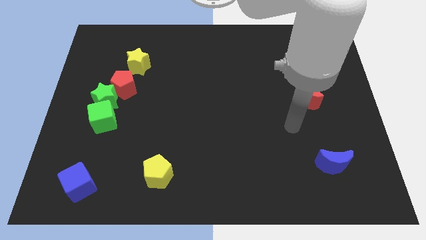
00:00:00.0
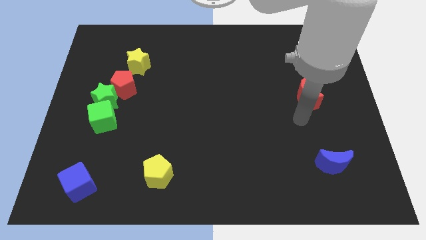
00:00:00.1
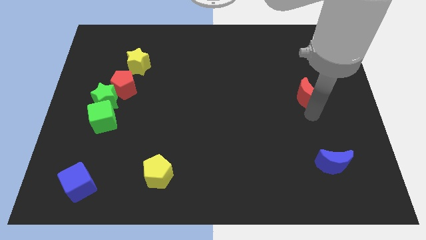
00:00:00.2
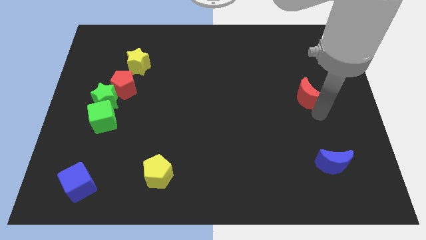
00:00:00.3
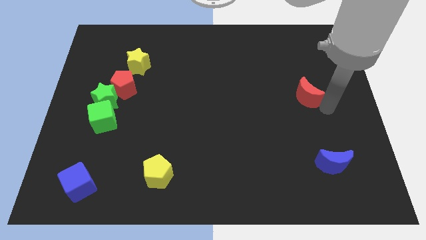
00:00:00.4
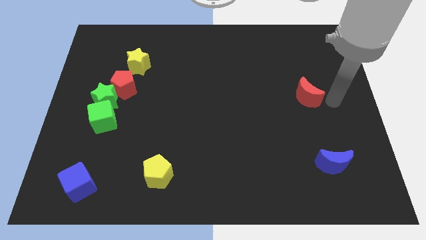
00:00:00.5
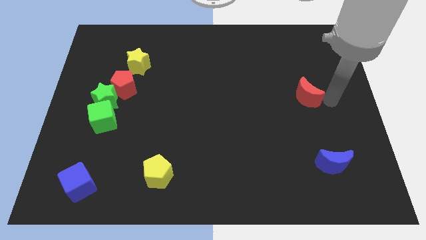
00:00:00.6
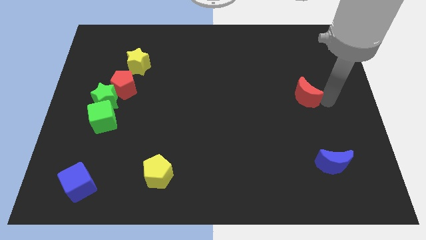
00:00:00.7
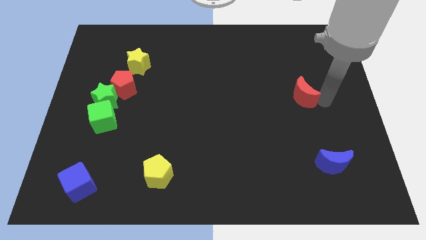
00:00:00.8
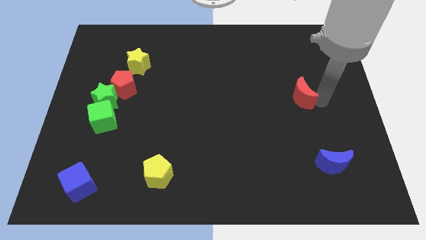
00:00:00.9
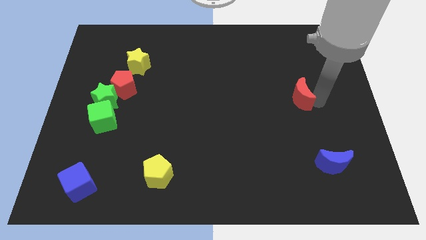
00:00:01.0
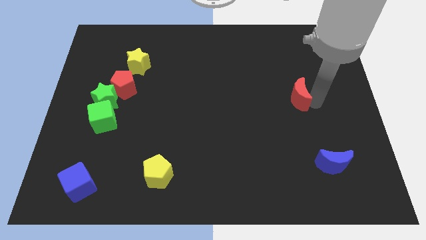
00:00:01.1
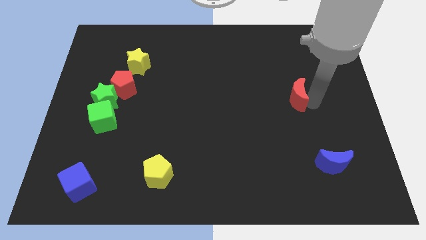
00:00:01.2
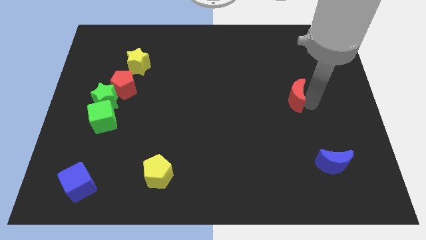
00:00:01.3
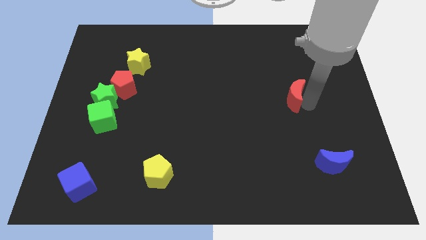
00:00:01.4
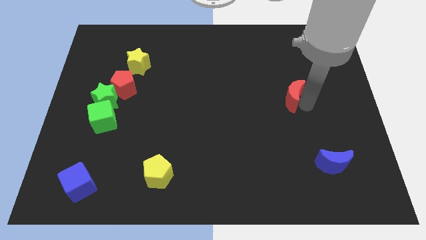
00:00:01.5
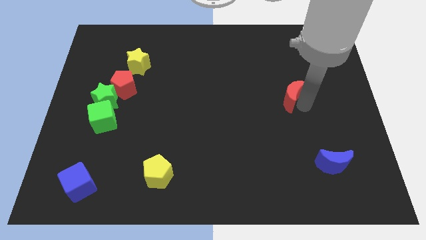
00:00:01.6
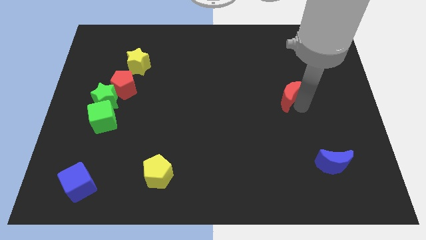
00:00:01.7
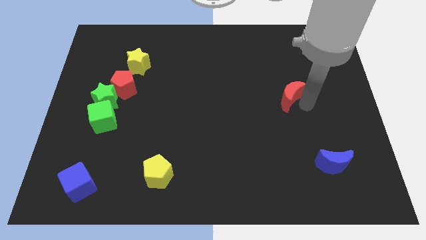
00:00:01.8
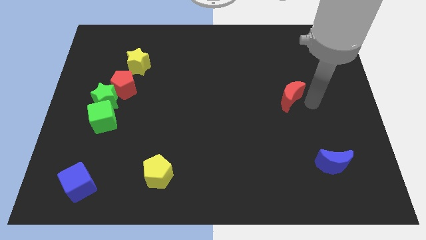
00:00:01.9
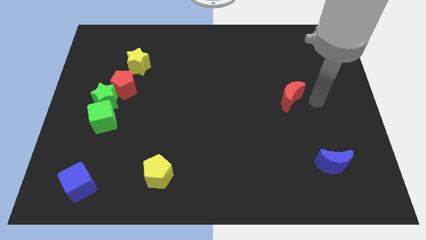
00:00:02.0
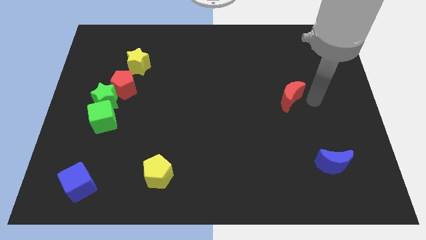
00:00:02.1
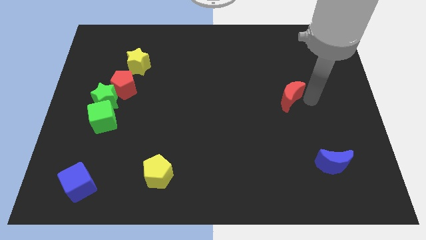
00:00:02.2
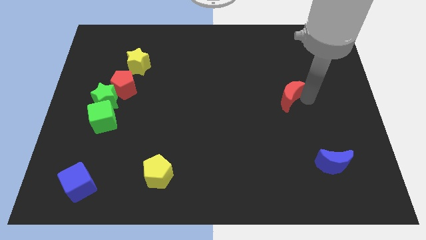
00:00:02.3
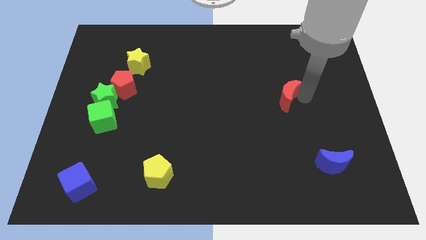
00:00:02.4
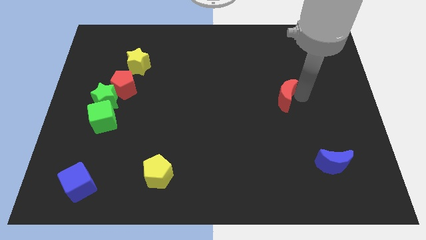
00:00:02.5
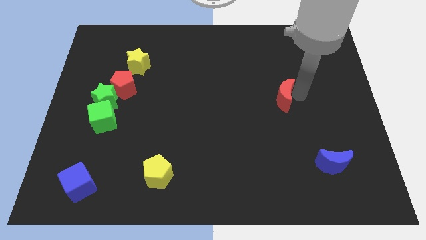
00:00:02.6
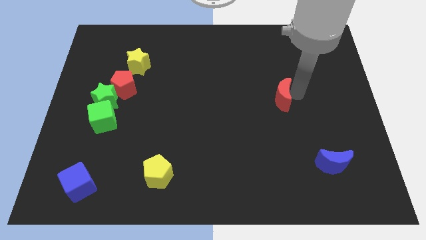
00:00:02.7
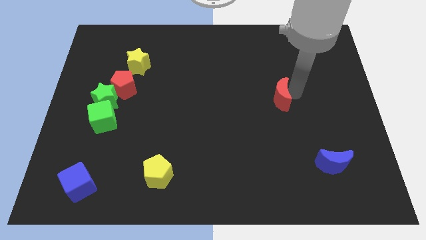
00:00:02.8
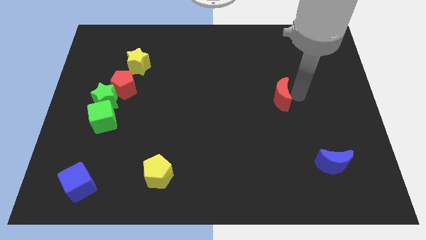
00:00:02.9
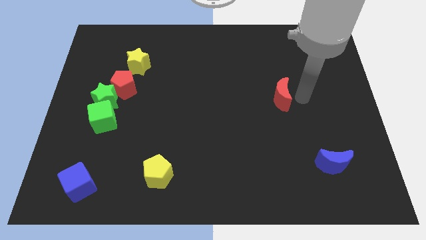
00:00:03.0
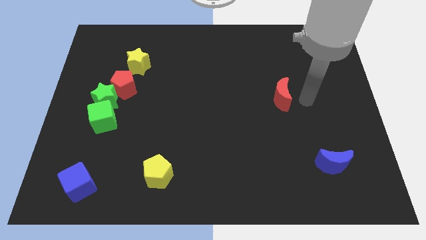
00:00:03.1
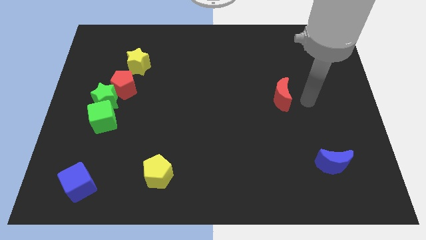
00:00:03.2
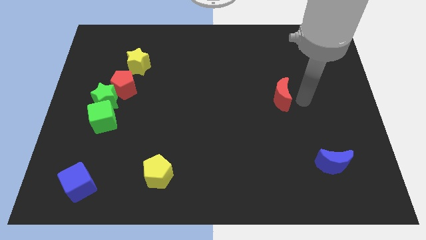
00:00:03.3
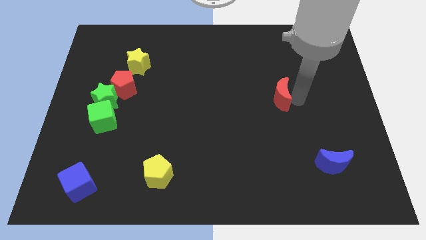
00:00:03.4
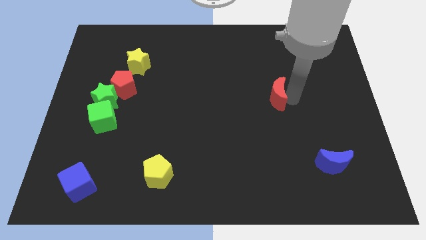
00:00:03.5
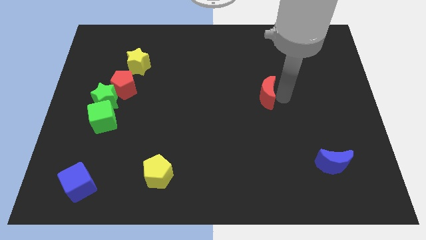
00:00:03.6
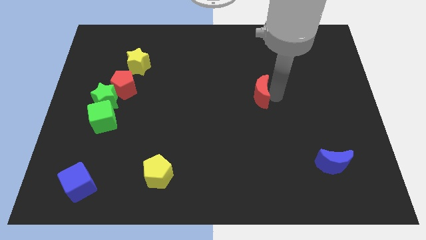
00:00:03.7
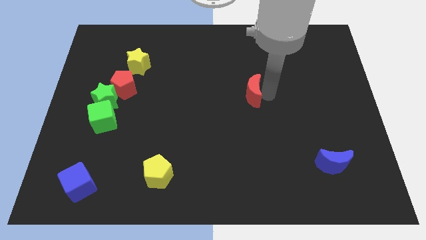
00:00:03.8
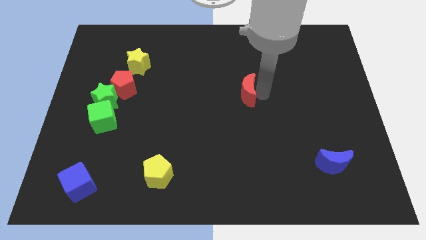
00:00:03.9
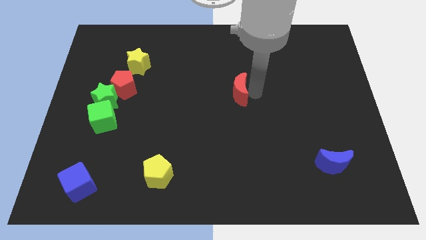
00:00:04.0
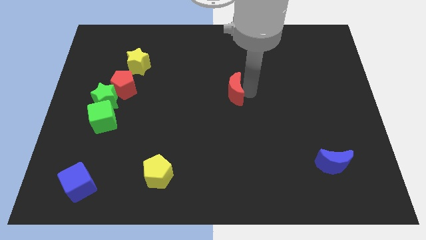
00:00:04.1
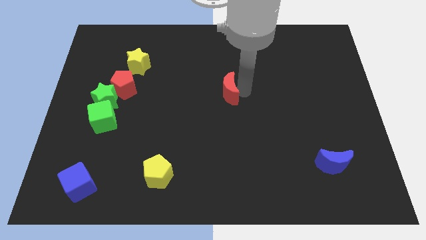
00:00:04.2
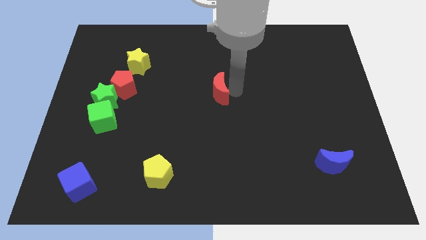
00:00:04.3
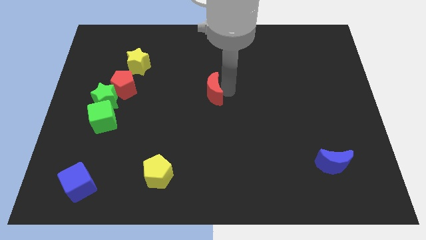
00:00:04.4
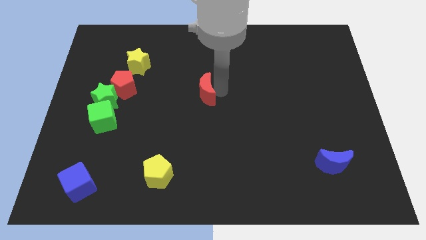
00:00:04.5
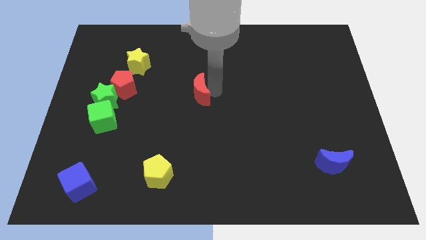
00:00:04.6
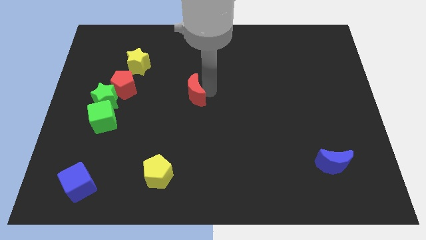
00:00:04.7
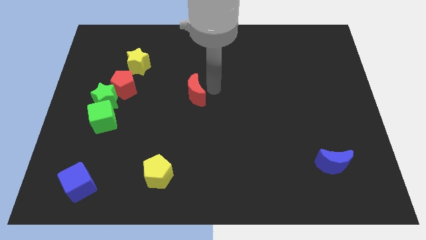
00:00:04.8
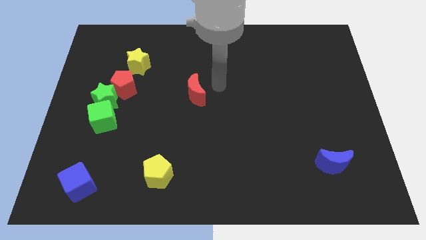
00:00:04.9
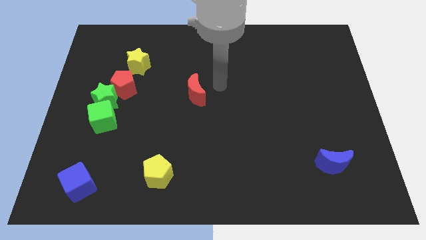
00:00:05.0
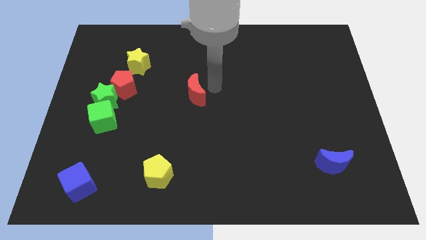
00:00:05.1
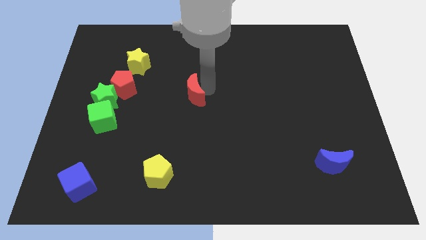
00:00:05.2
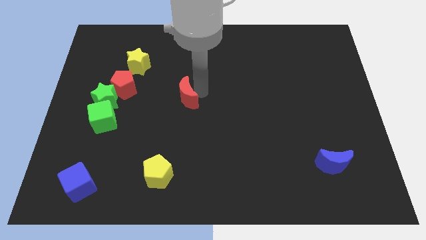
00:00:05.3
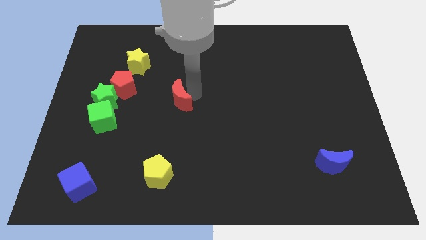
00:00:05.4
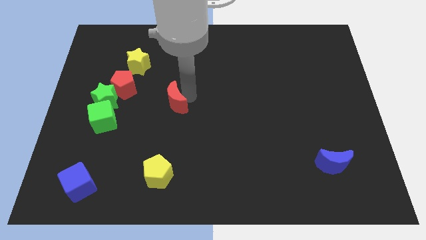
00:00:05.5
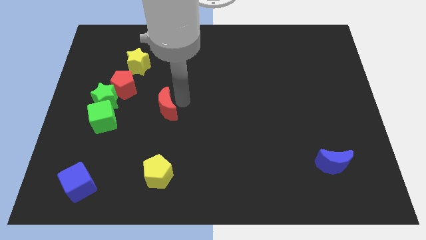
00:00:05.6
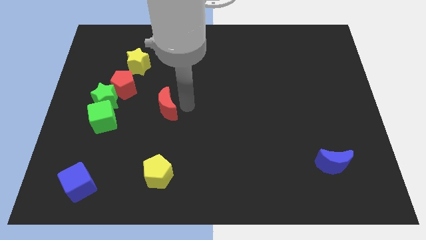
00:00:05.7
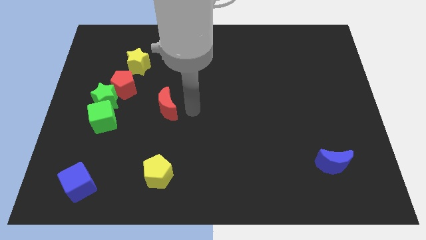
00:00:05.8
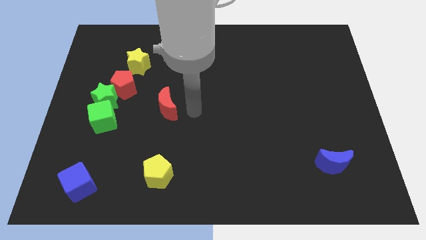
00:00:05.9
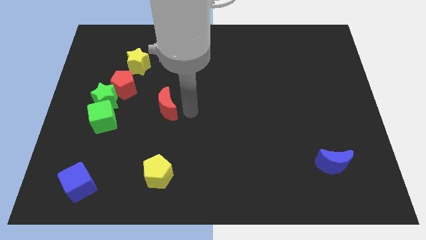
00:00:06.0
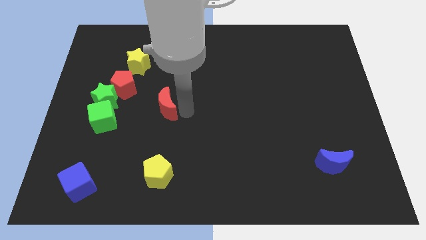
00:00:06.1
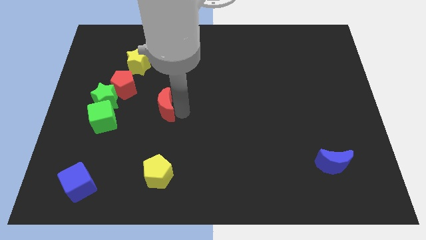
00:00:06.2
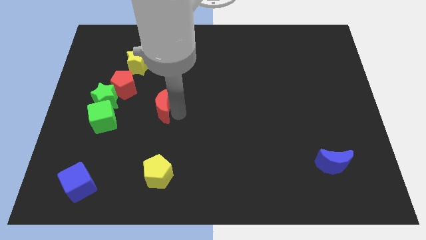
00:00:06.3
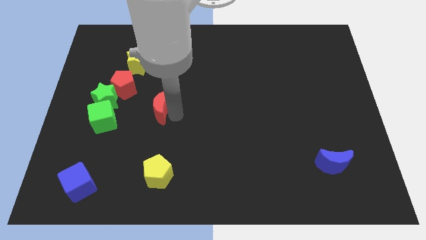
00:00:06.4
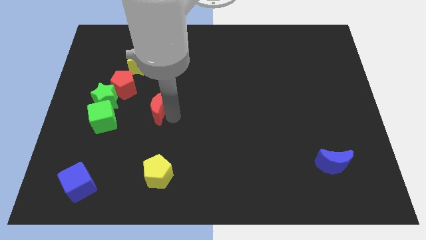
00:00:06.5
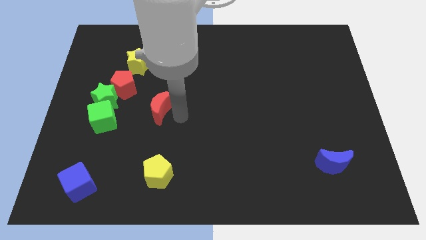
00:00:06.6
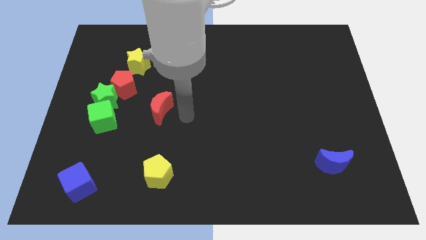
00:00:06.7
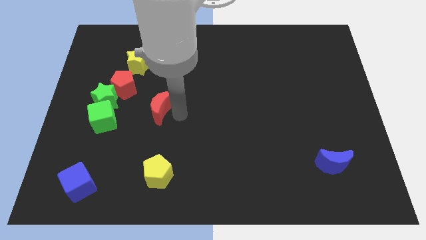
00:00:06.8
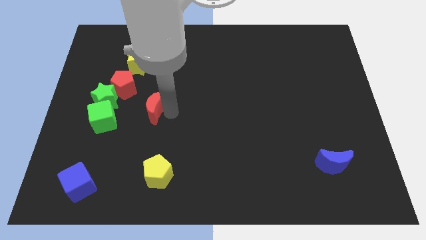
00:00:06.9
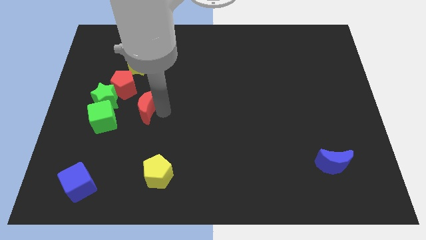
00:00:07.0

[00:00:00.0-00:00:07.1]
put the red moon to the top right side of the green cube
